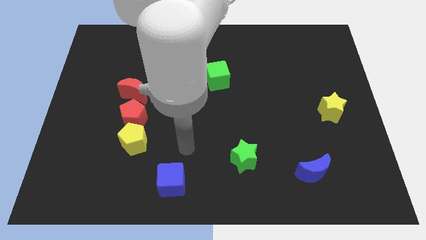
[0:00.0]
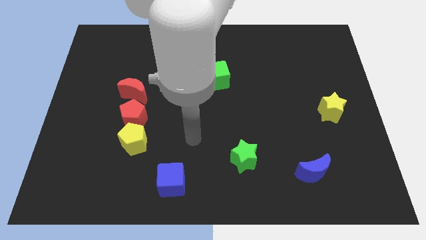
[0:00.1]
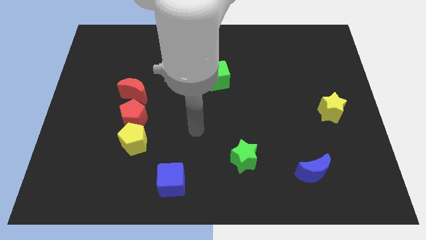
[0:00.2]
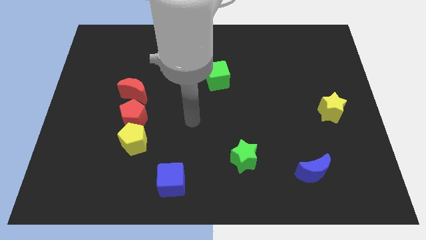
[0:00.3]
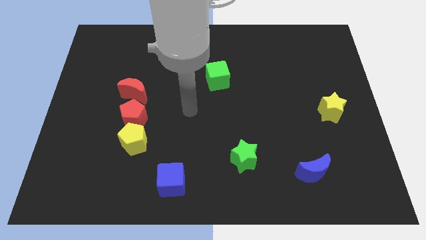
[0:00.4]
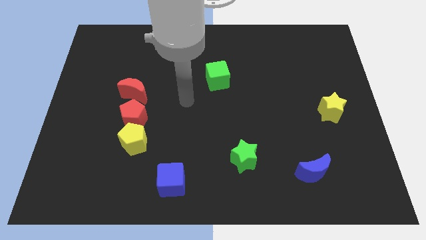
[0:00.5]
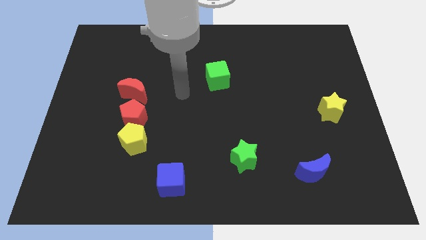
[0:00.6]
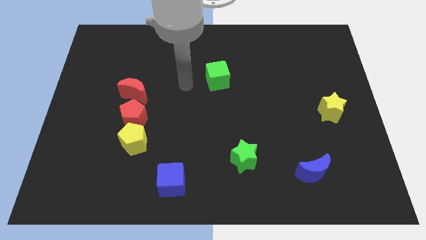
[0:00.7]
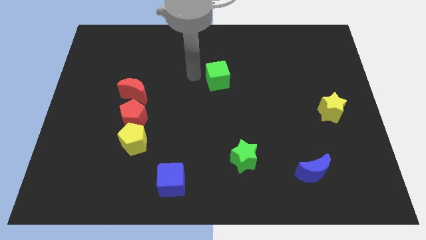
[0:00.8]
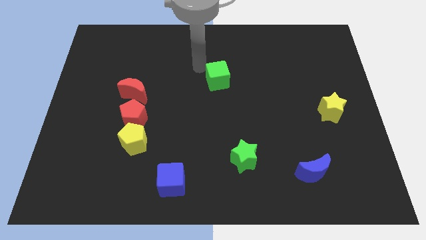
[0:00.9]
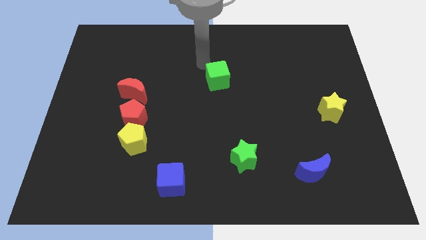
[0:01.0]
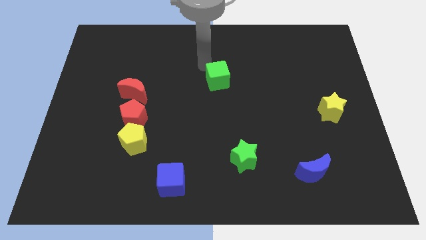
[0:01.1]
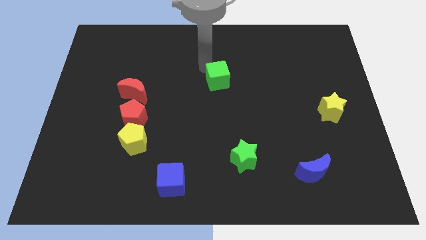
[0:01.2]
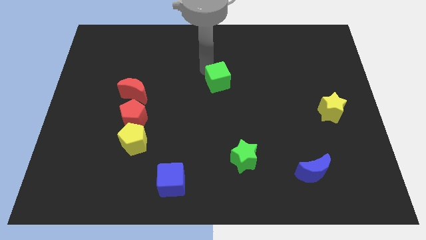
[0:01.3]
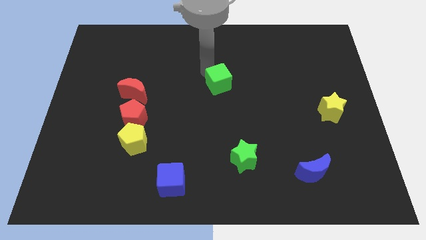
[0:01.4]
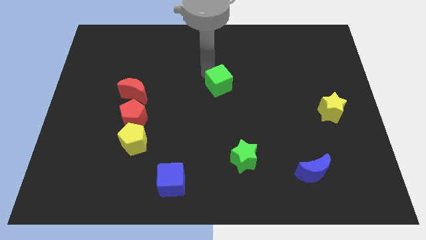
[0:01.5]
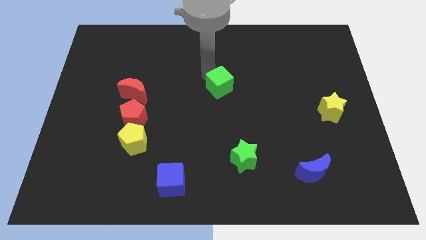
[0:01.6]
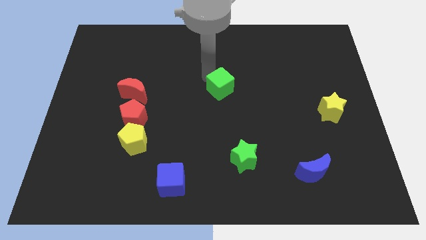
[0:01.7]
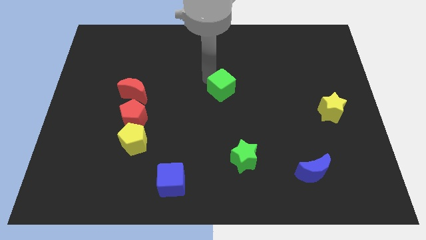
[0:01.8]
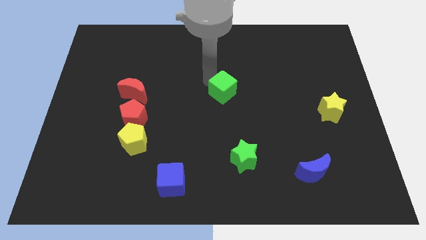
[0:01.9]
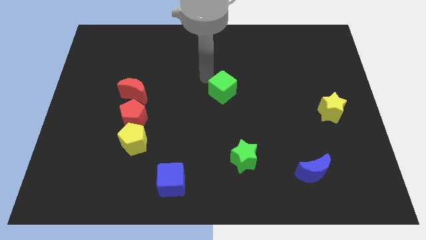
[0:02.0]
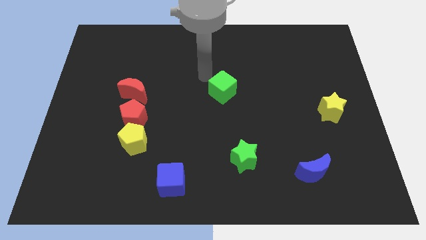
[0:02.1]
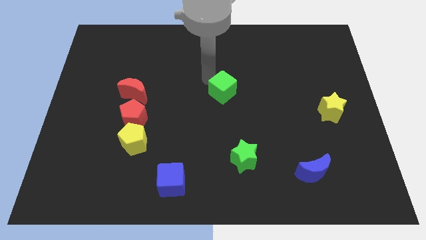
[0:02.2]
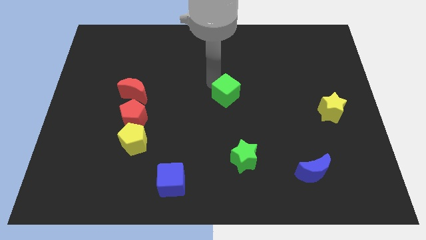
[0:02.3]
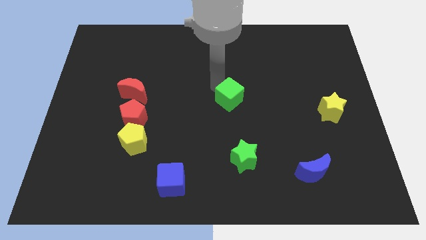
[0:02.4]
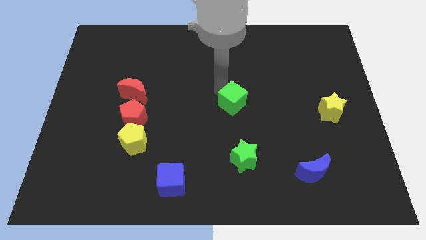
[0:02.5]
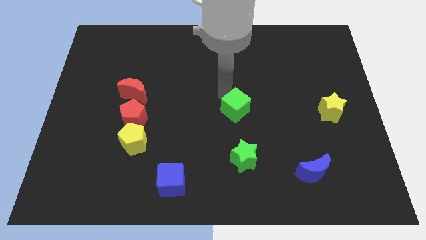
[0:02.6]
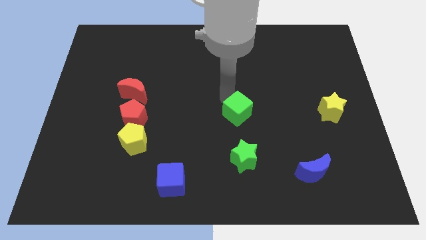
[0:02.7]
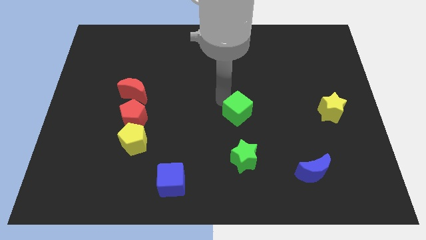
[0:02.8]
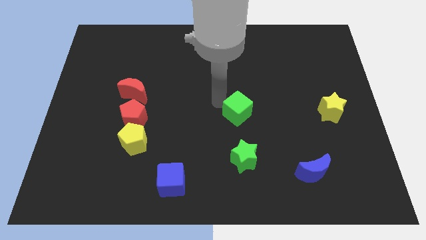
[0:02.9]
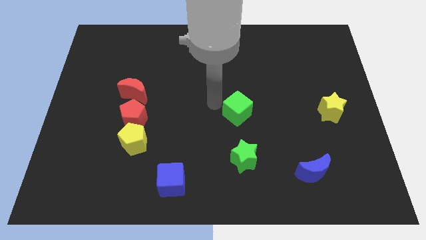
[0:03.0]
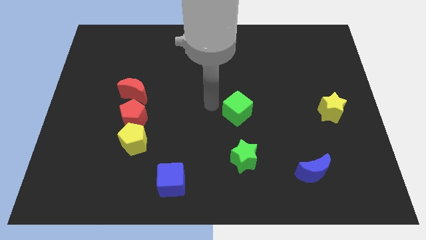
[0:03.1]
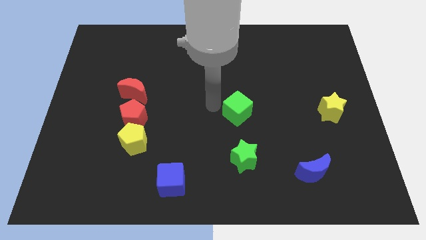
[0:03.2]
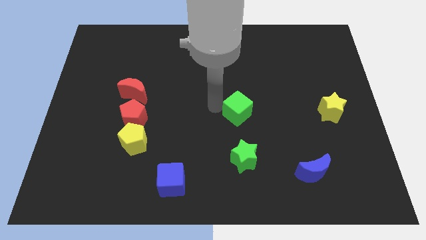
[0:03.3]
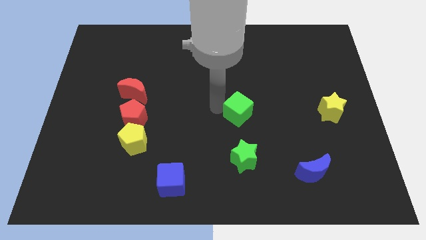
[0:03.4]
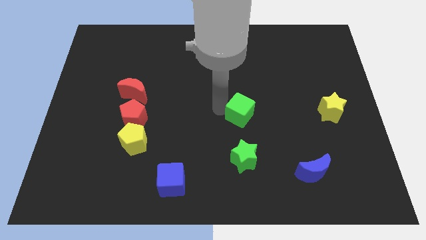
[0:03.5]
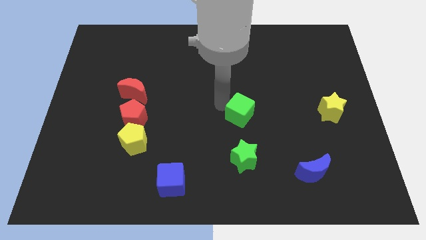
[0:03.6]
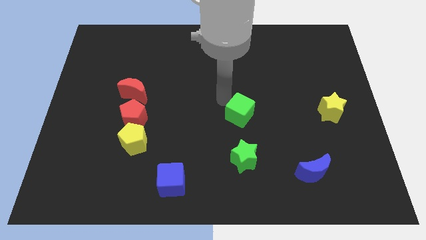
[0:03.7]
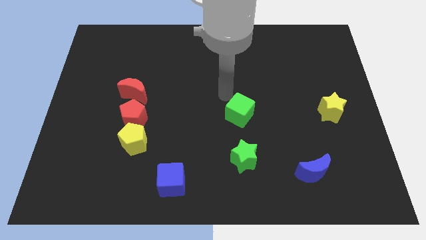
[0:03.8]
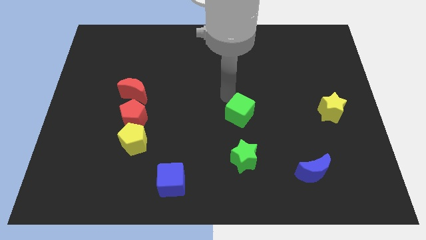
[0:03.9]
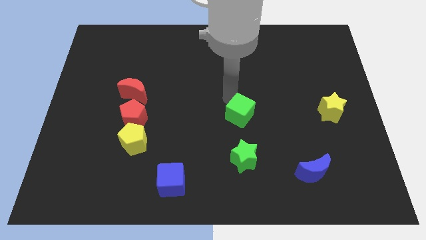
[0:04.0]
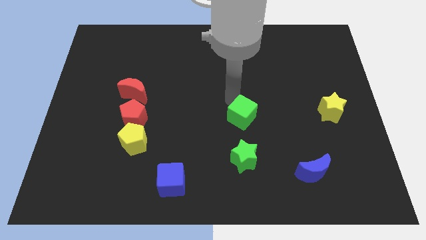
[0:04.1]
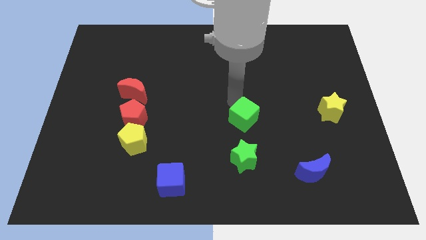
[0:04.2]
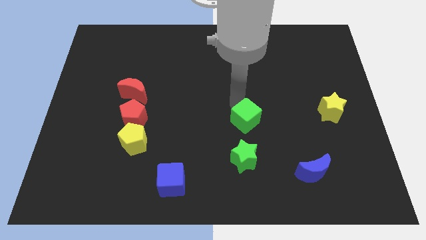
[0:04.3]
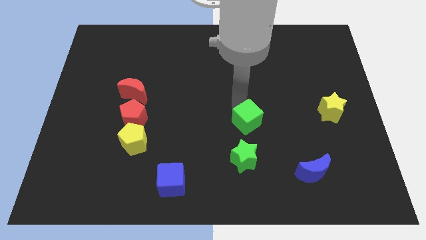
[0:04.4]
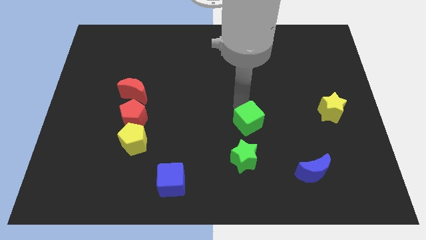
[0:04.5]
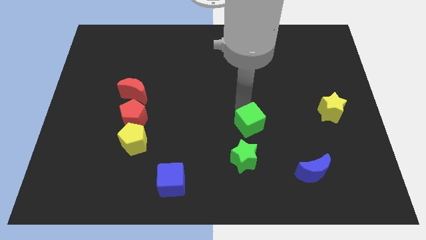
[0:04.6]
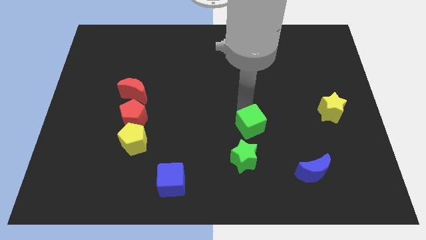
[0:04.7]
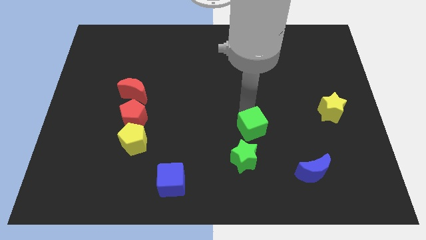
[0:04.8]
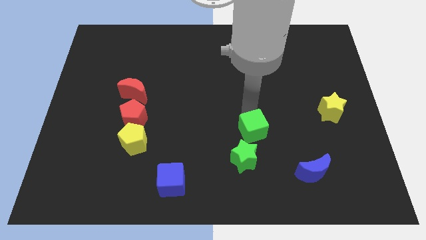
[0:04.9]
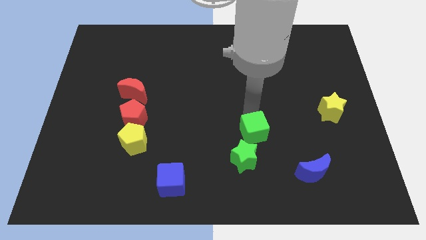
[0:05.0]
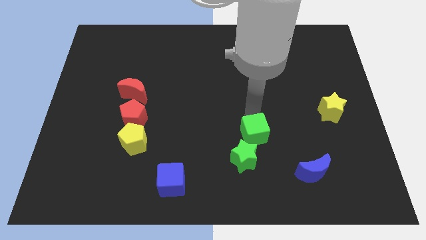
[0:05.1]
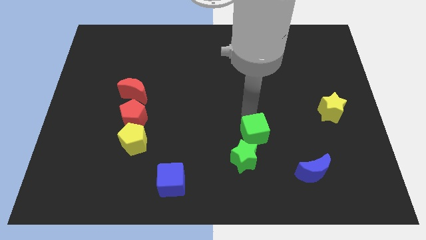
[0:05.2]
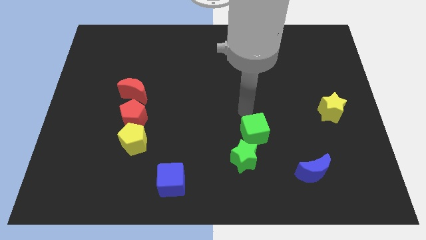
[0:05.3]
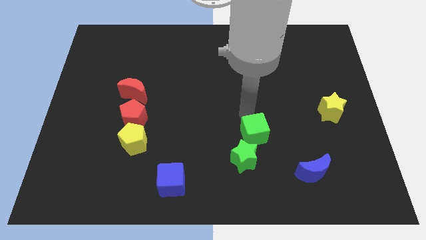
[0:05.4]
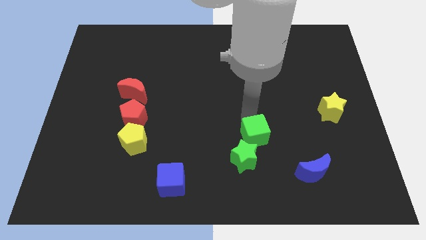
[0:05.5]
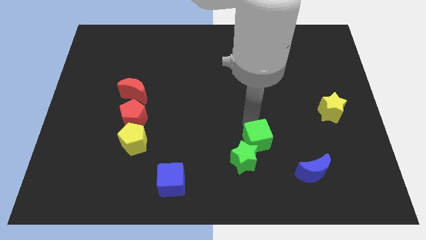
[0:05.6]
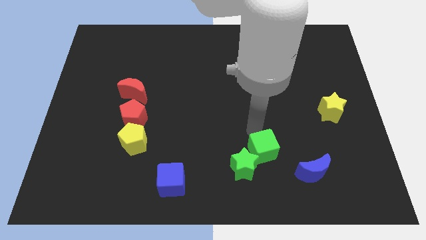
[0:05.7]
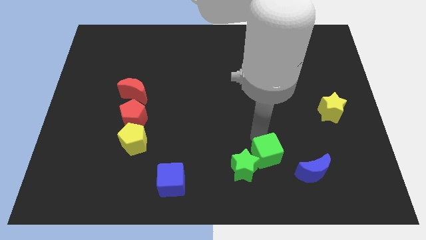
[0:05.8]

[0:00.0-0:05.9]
push the green cube to the left side of the blue moon

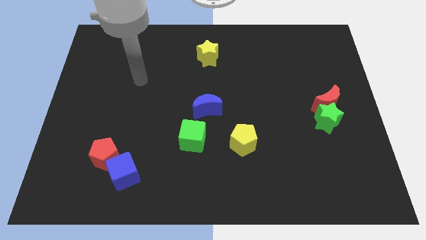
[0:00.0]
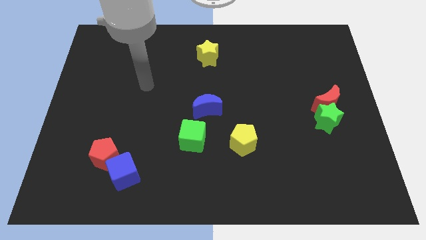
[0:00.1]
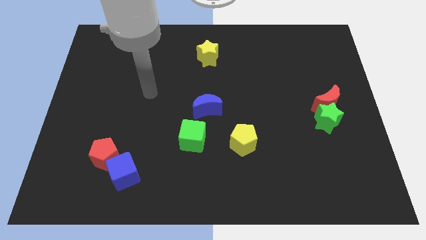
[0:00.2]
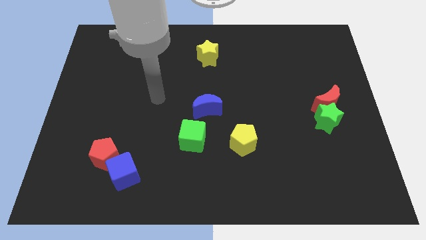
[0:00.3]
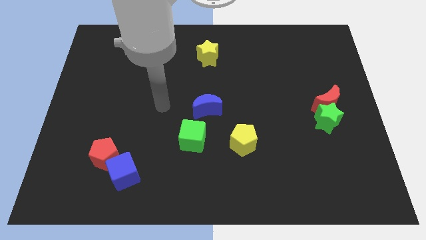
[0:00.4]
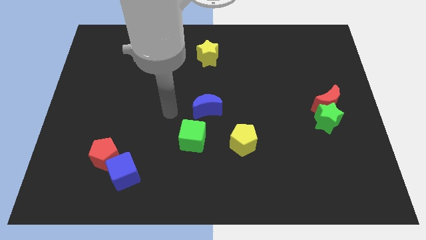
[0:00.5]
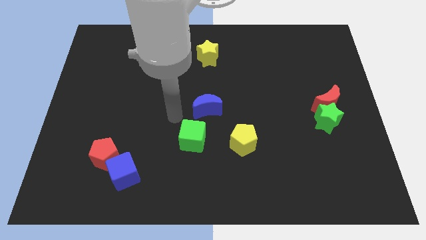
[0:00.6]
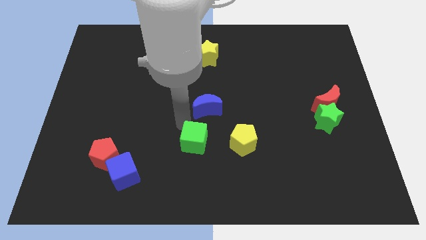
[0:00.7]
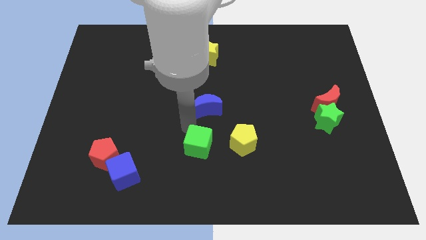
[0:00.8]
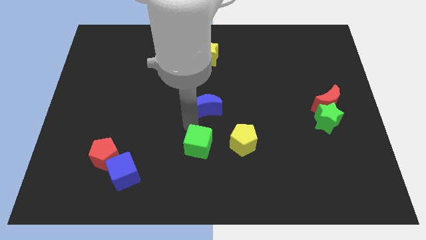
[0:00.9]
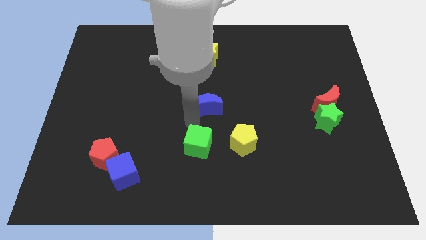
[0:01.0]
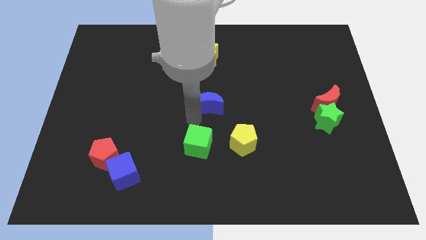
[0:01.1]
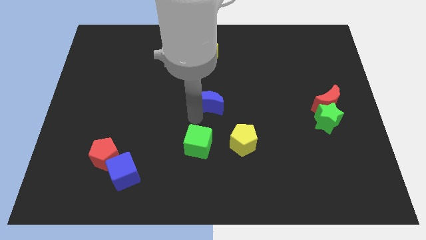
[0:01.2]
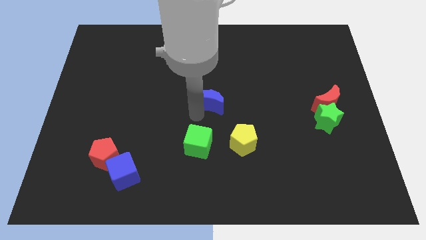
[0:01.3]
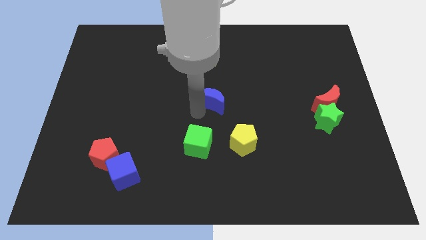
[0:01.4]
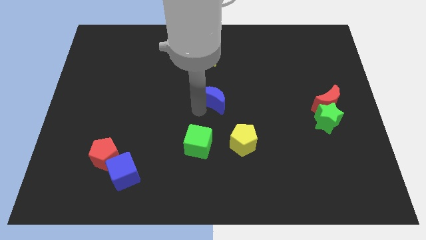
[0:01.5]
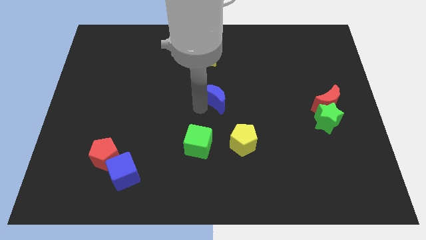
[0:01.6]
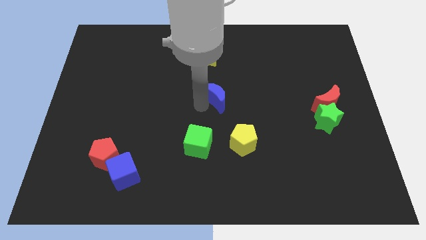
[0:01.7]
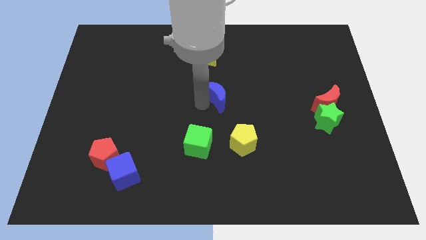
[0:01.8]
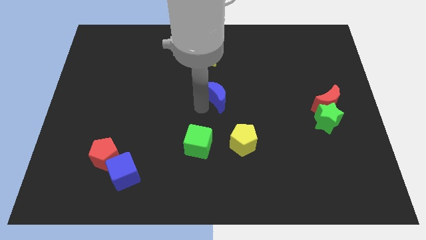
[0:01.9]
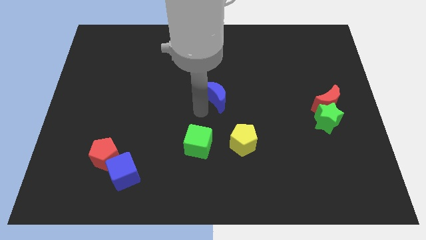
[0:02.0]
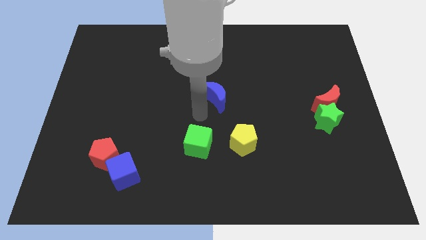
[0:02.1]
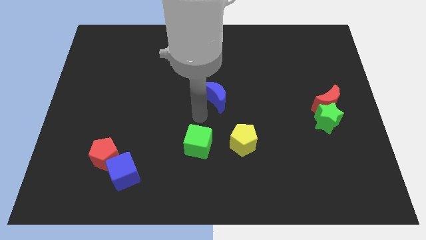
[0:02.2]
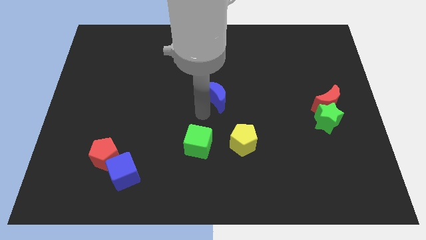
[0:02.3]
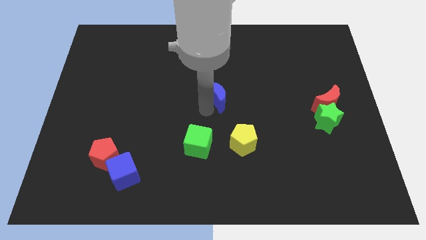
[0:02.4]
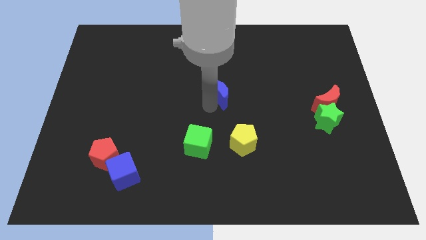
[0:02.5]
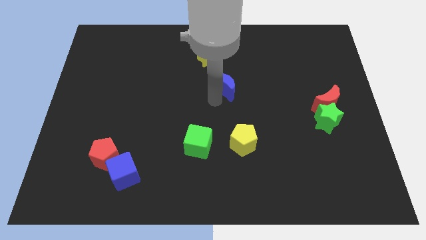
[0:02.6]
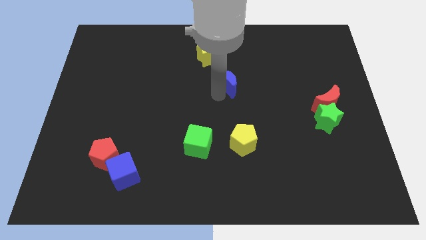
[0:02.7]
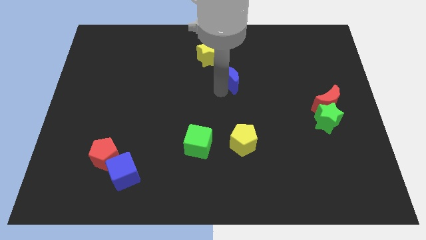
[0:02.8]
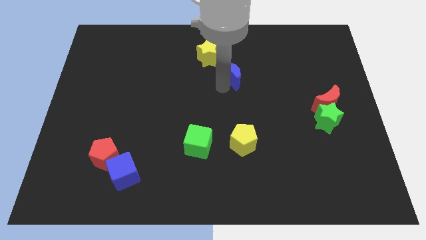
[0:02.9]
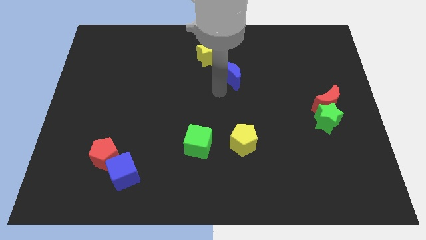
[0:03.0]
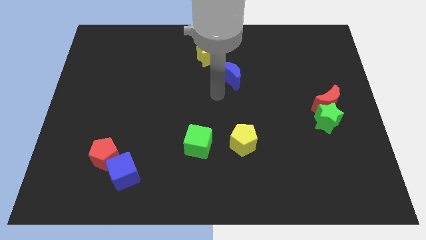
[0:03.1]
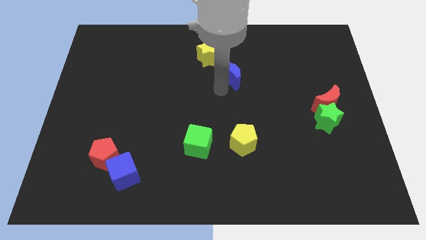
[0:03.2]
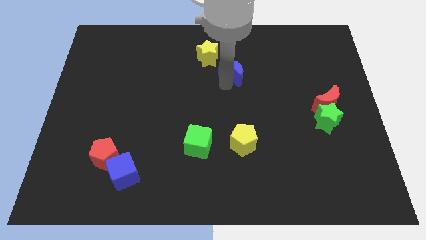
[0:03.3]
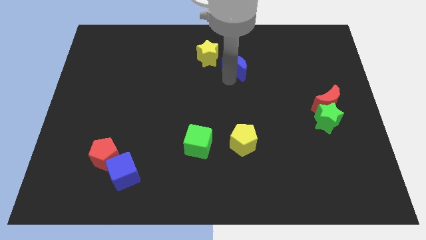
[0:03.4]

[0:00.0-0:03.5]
slide the blue moon right of the yellow star
